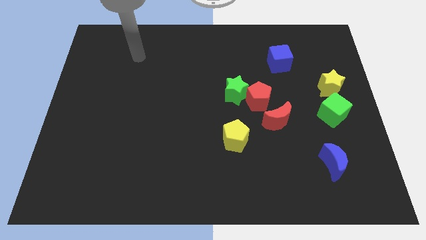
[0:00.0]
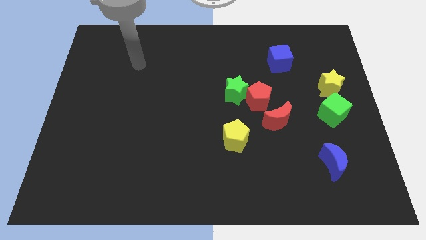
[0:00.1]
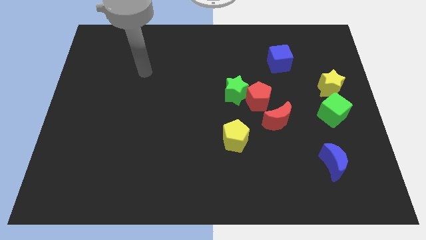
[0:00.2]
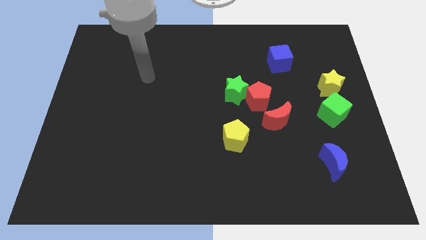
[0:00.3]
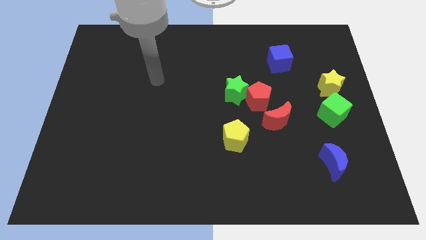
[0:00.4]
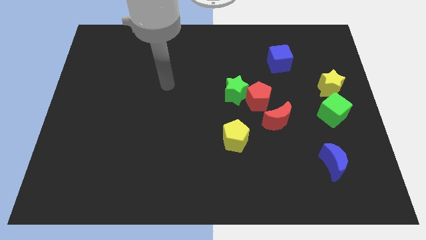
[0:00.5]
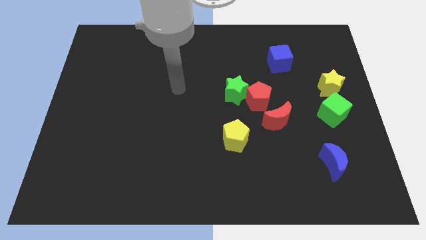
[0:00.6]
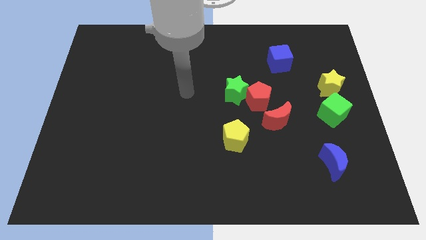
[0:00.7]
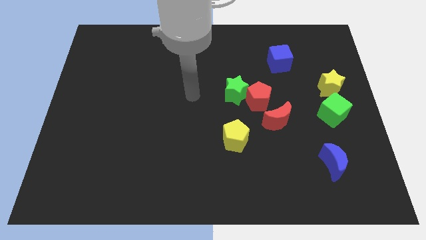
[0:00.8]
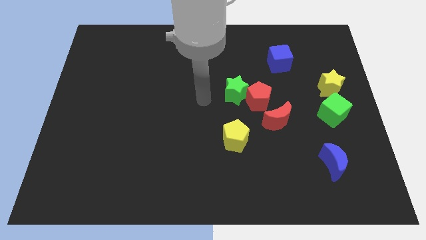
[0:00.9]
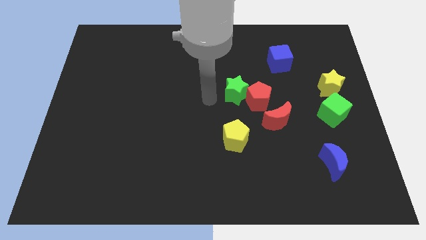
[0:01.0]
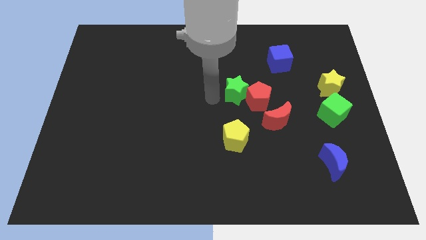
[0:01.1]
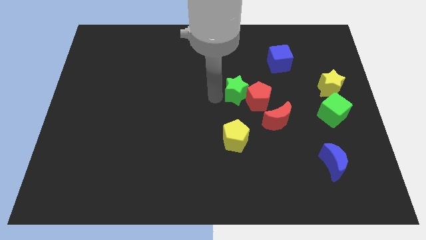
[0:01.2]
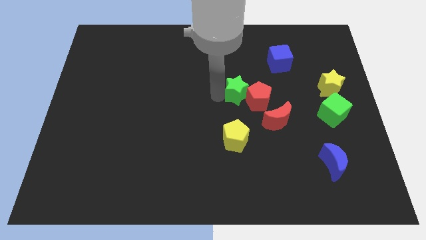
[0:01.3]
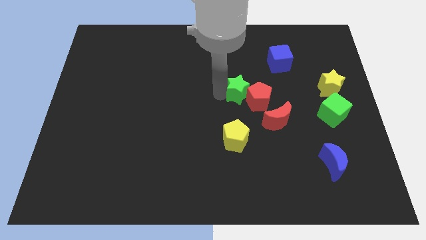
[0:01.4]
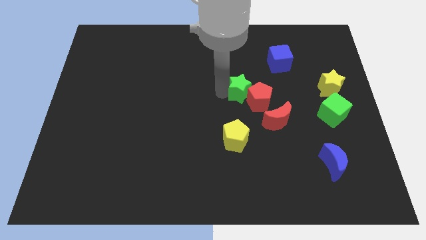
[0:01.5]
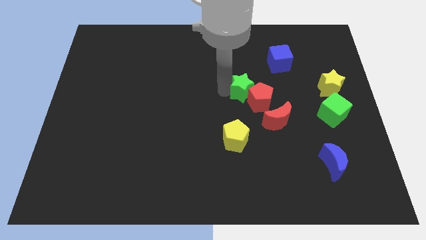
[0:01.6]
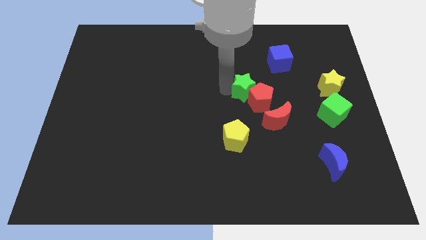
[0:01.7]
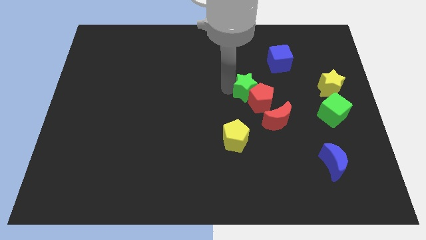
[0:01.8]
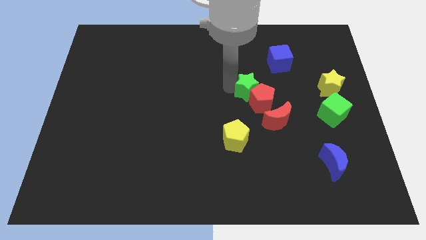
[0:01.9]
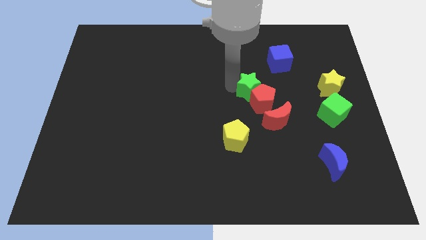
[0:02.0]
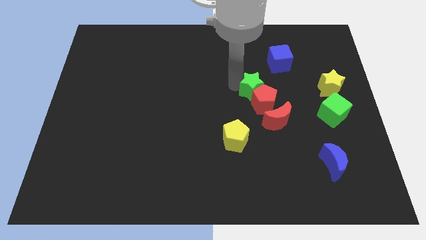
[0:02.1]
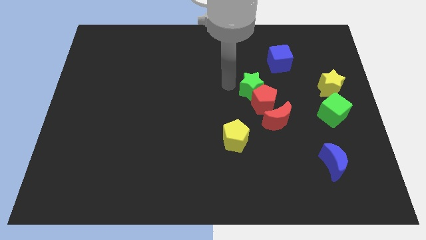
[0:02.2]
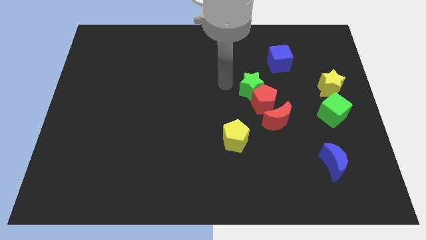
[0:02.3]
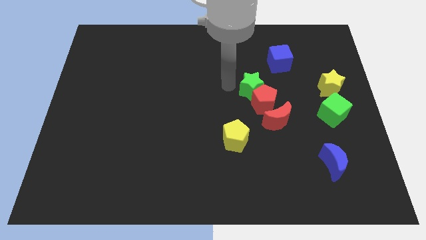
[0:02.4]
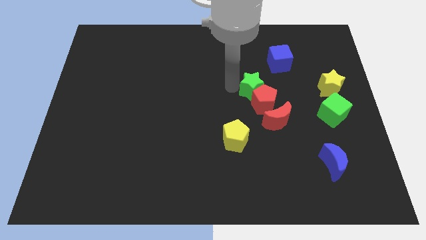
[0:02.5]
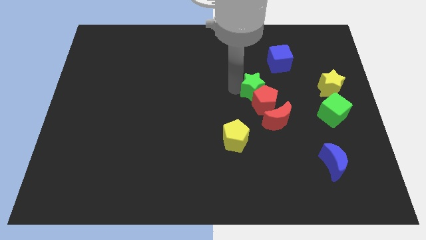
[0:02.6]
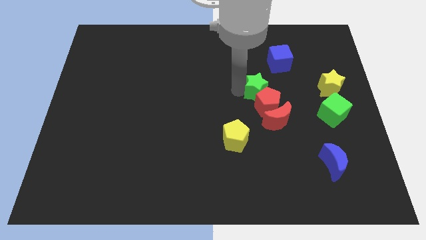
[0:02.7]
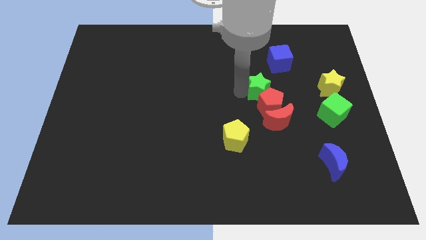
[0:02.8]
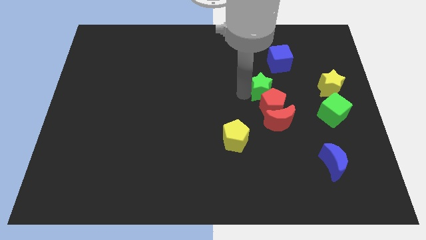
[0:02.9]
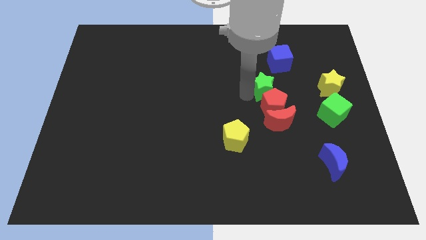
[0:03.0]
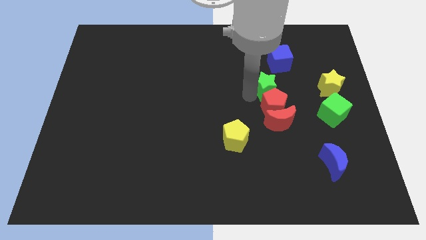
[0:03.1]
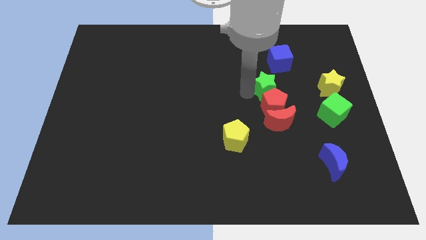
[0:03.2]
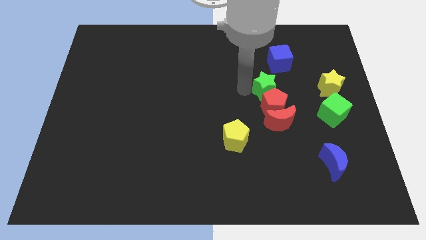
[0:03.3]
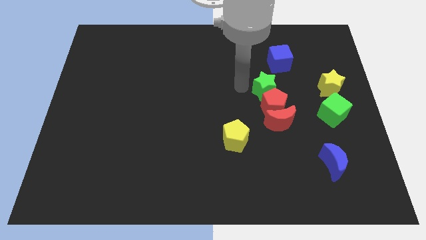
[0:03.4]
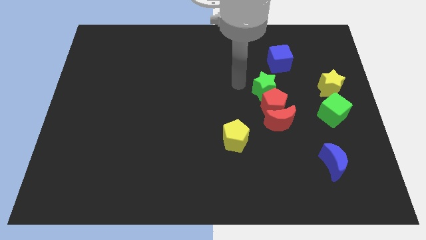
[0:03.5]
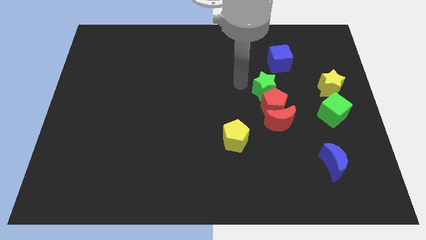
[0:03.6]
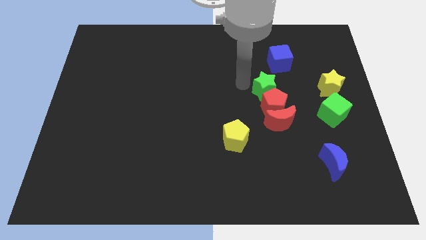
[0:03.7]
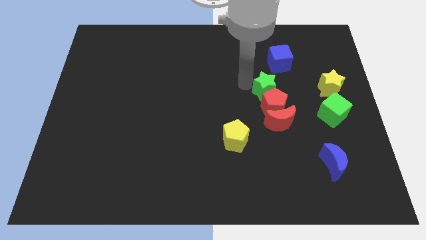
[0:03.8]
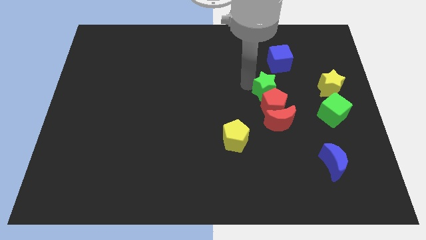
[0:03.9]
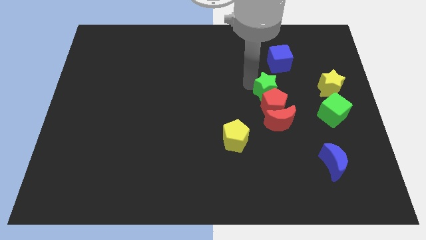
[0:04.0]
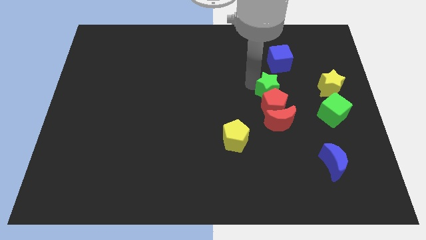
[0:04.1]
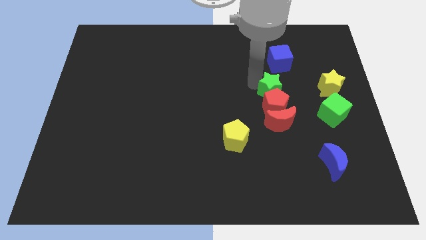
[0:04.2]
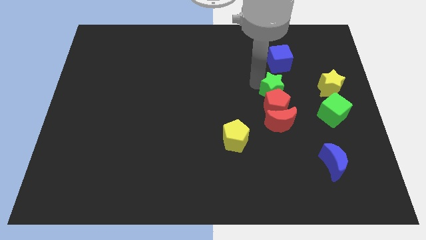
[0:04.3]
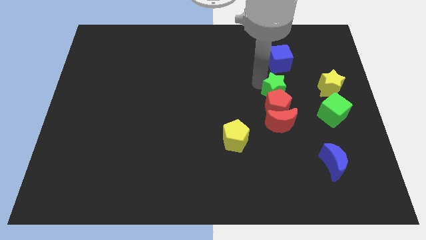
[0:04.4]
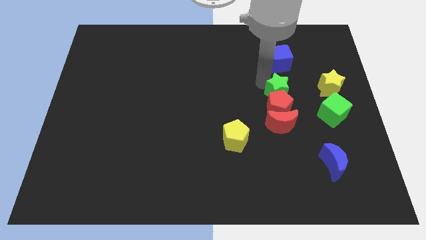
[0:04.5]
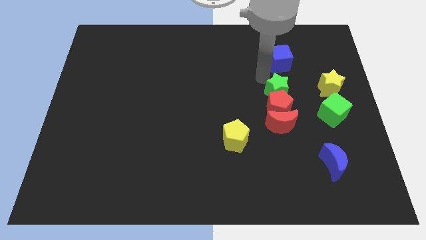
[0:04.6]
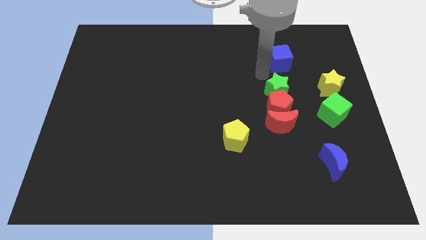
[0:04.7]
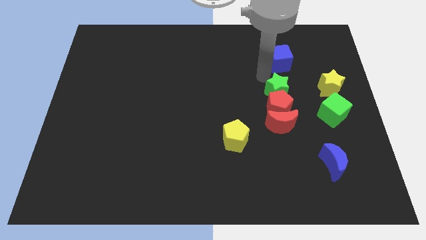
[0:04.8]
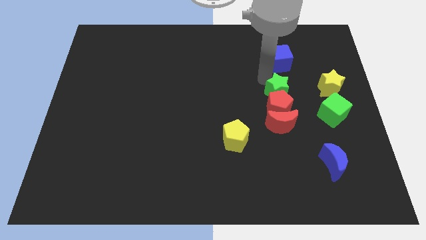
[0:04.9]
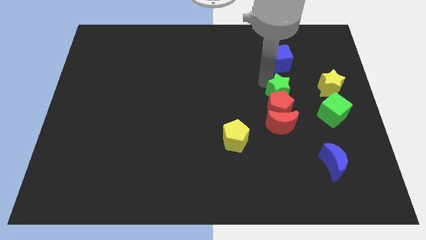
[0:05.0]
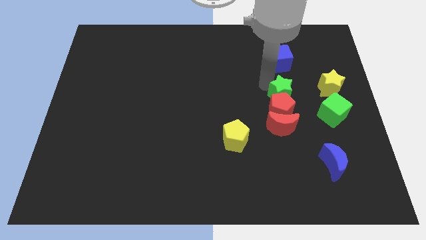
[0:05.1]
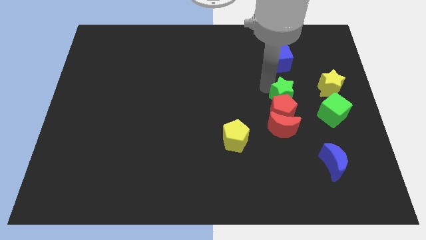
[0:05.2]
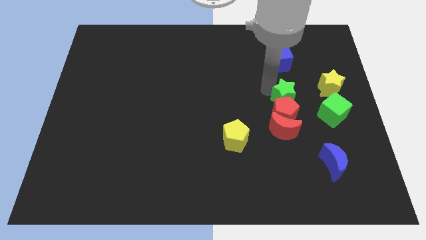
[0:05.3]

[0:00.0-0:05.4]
move the green star slightly downwards and then to the right

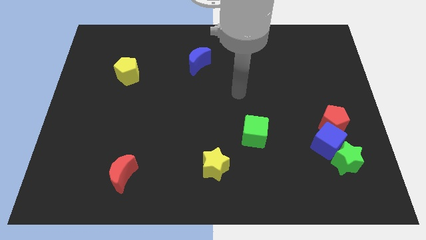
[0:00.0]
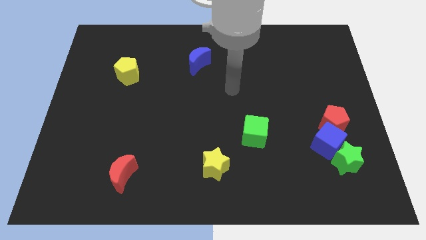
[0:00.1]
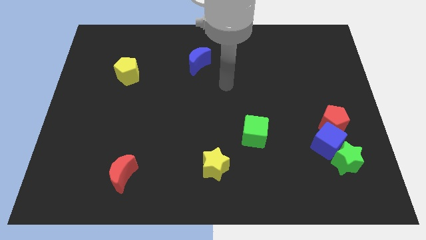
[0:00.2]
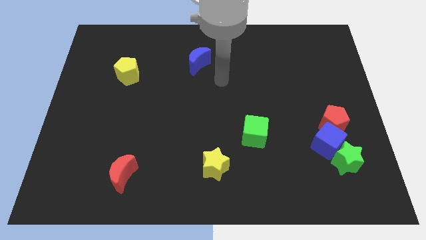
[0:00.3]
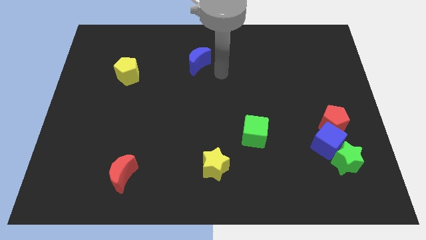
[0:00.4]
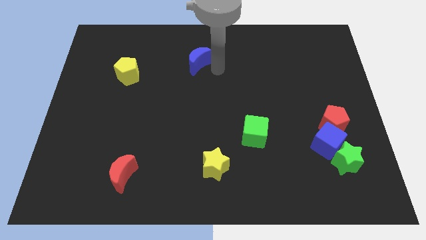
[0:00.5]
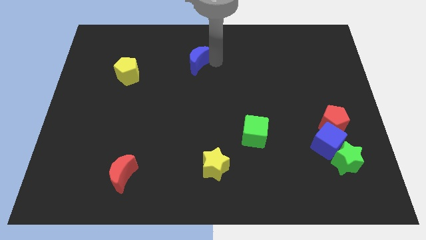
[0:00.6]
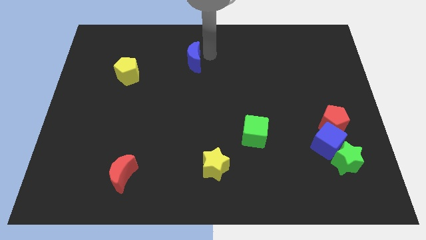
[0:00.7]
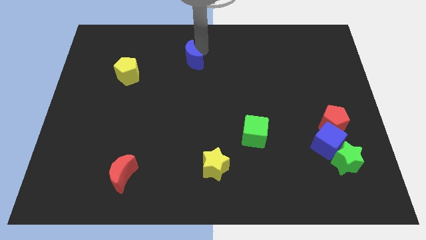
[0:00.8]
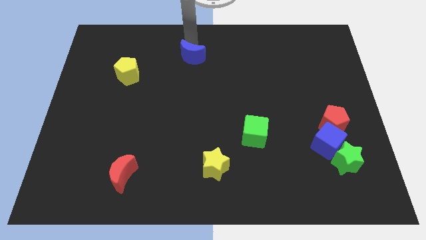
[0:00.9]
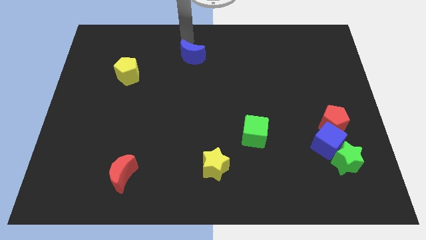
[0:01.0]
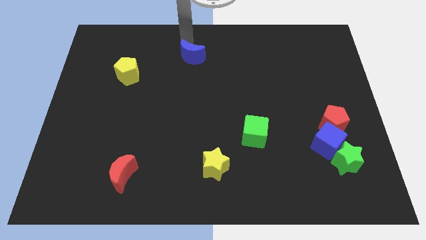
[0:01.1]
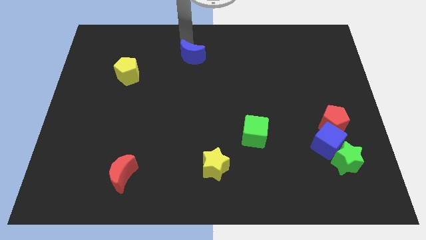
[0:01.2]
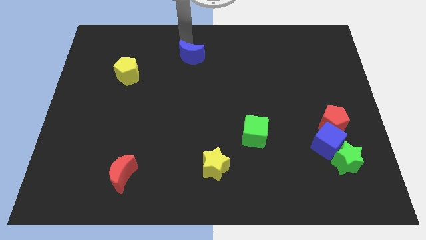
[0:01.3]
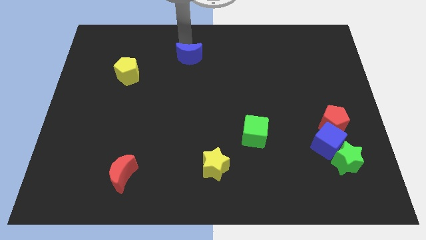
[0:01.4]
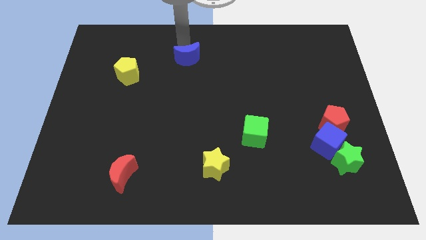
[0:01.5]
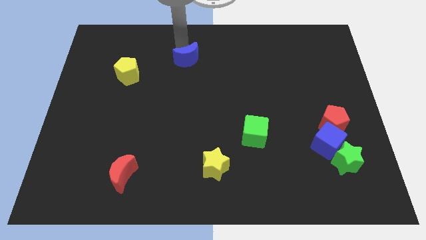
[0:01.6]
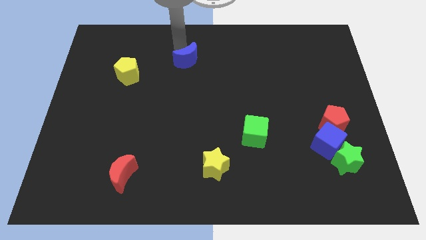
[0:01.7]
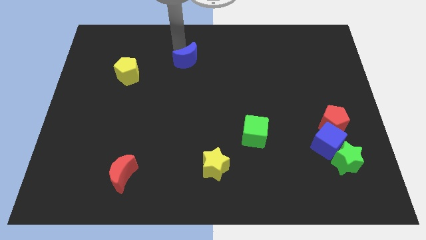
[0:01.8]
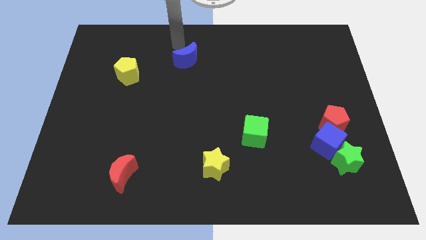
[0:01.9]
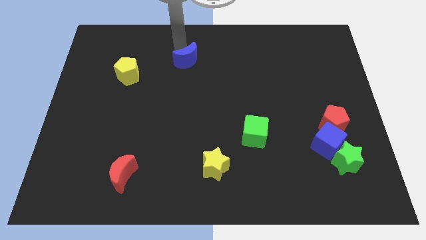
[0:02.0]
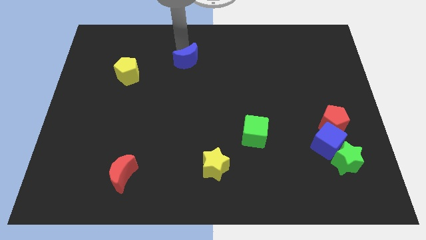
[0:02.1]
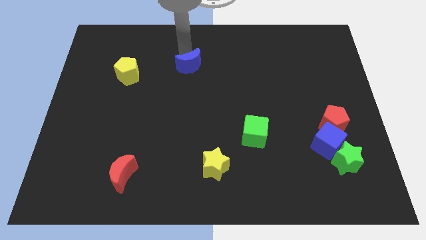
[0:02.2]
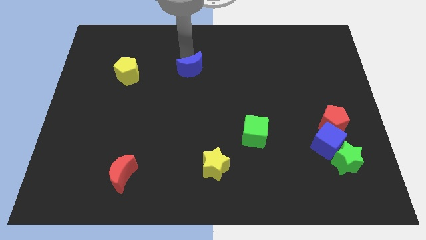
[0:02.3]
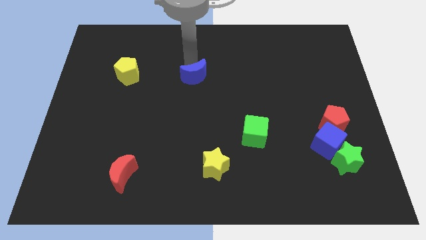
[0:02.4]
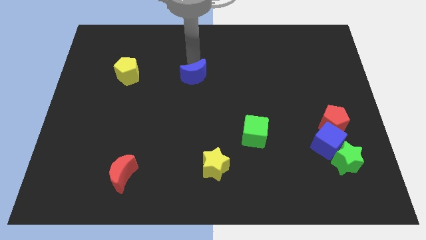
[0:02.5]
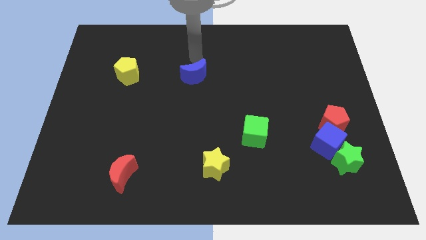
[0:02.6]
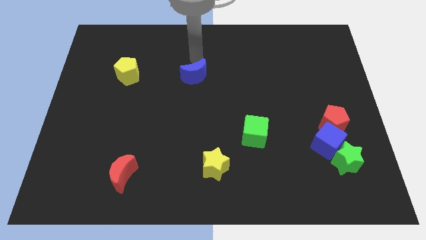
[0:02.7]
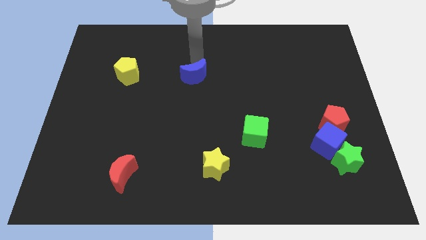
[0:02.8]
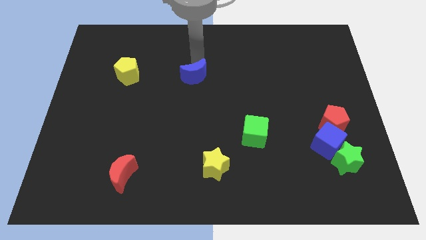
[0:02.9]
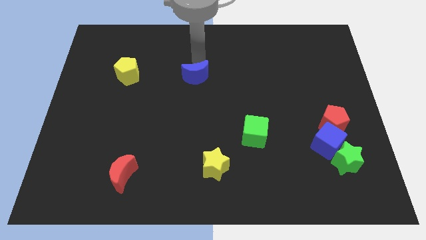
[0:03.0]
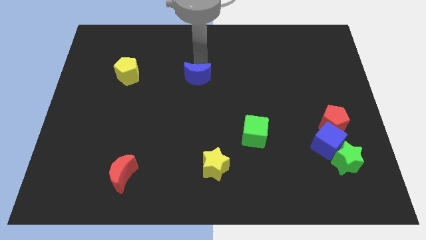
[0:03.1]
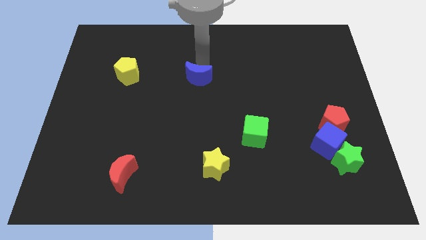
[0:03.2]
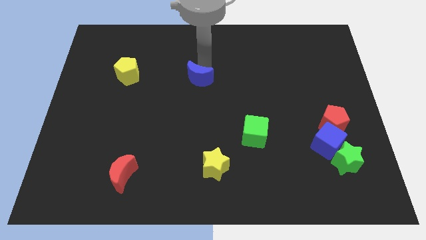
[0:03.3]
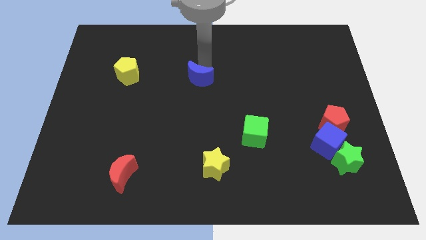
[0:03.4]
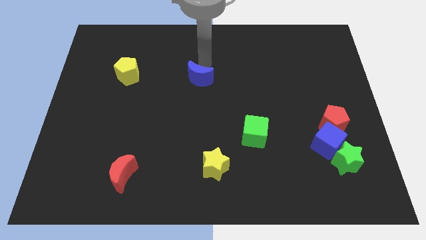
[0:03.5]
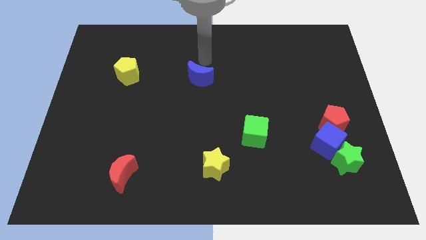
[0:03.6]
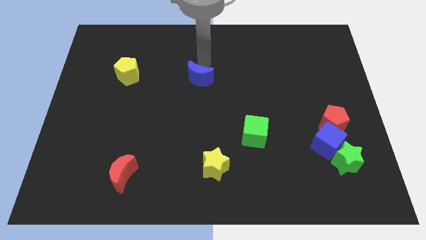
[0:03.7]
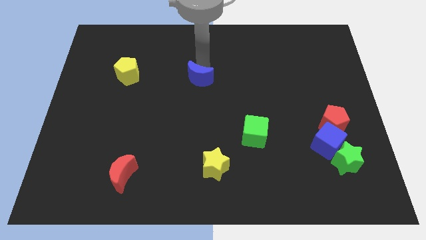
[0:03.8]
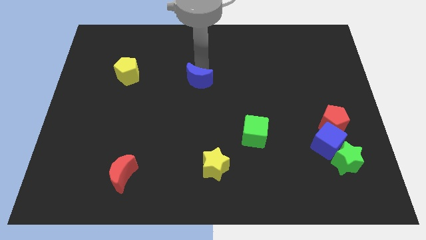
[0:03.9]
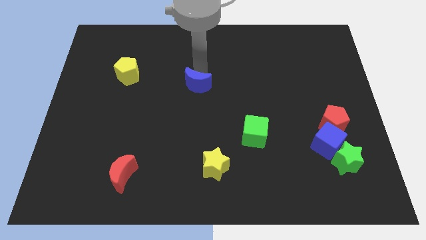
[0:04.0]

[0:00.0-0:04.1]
move the blue moon a little bit down
